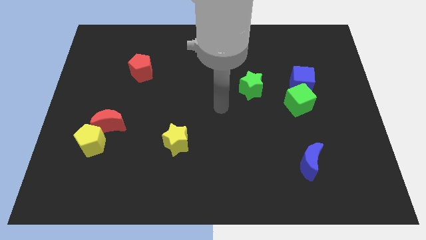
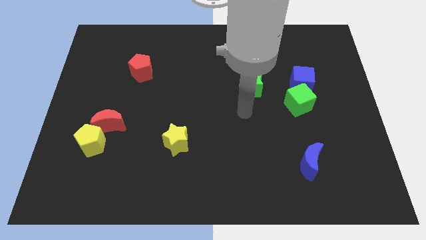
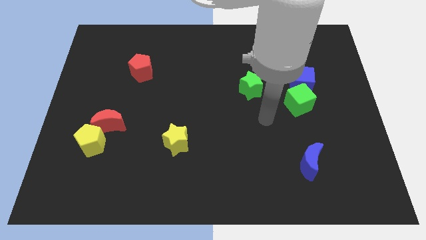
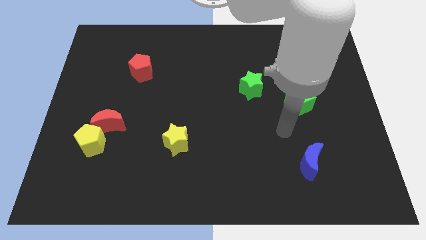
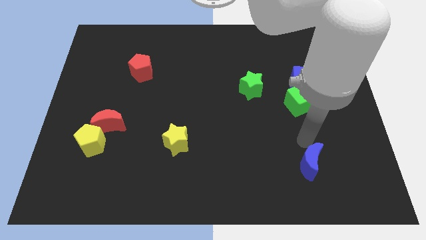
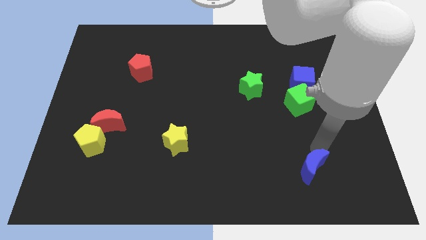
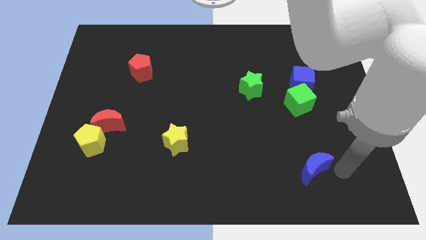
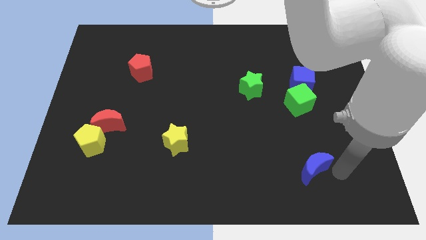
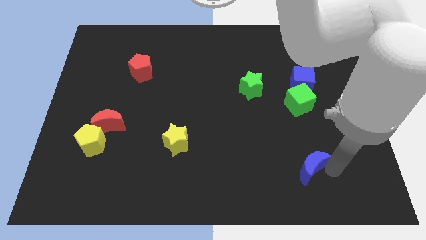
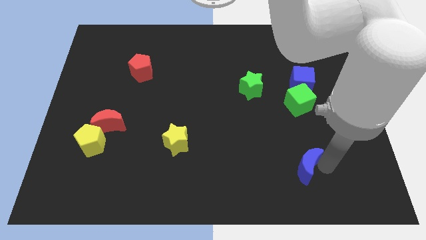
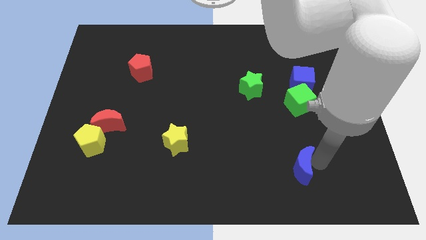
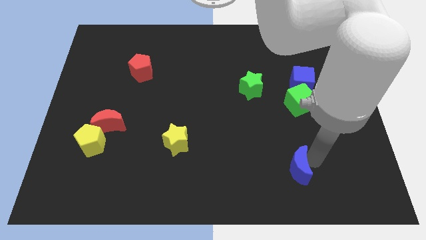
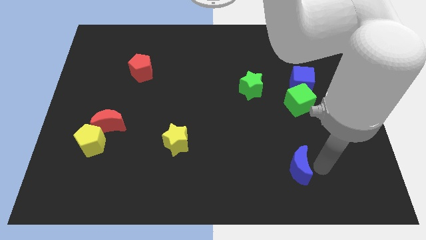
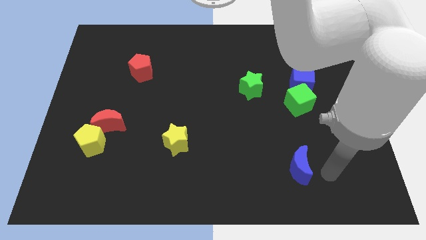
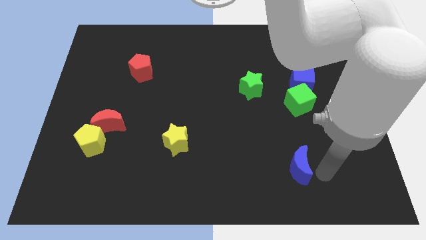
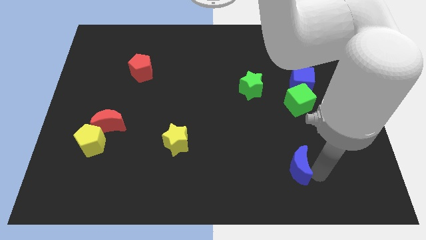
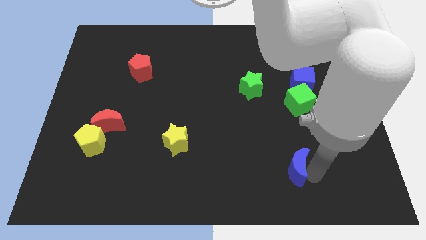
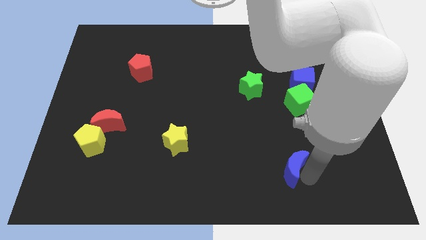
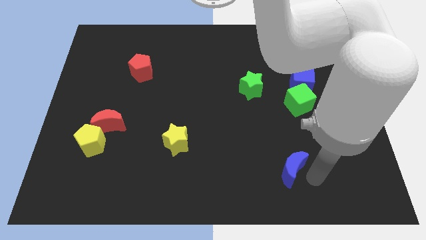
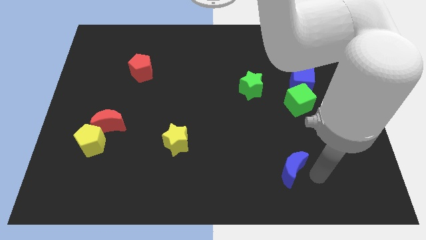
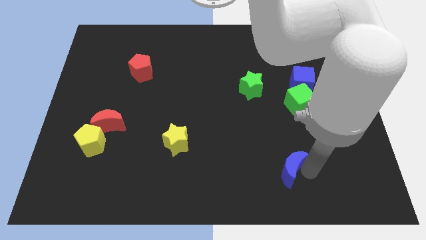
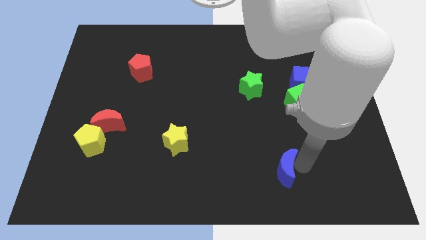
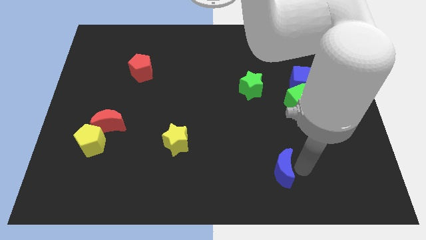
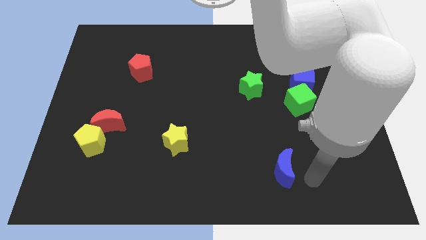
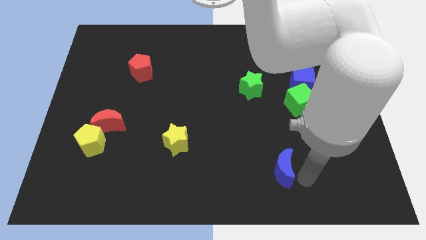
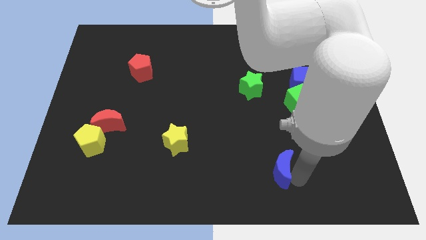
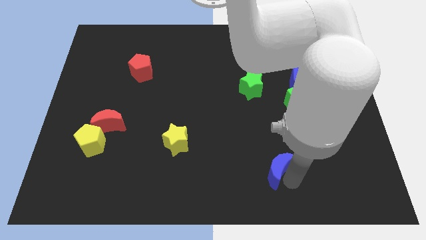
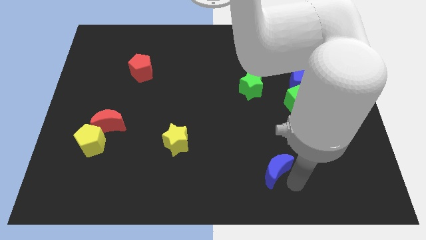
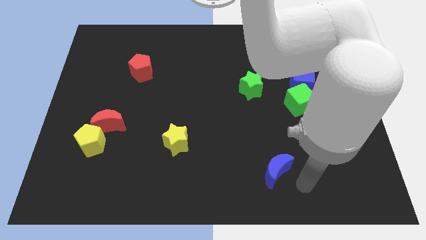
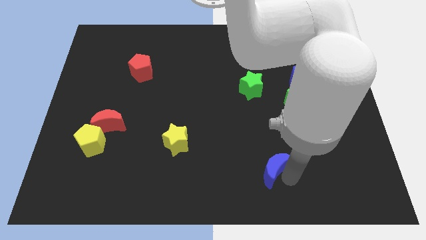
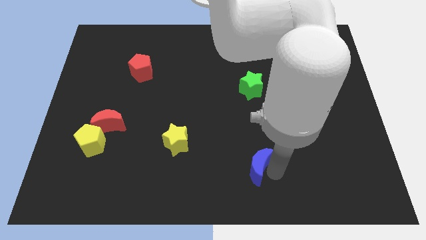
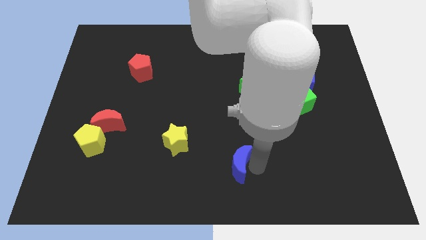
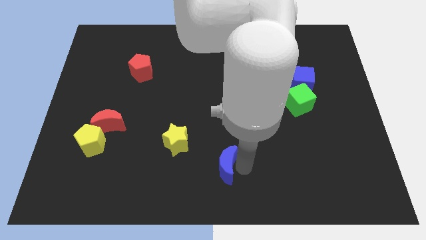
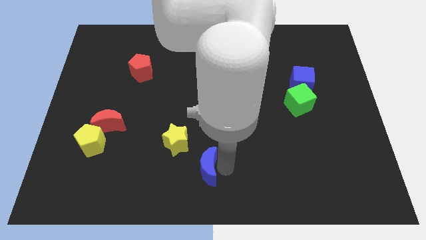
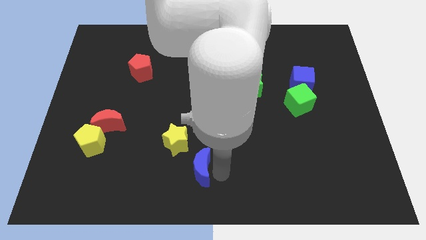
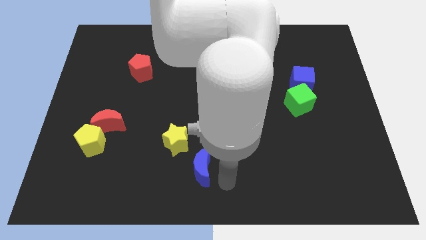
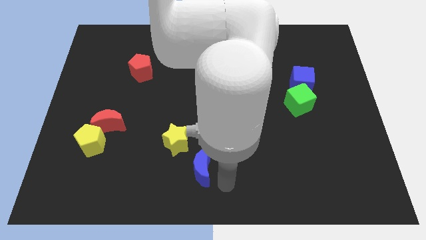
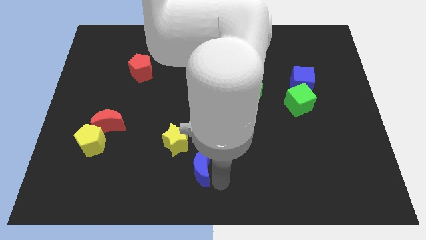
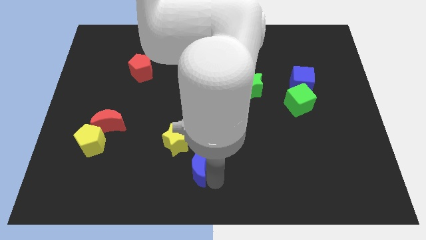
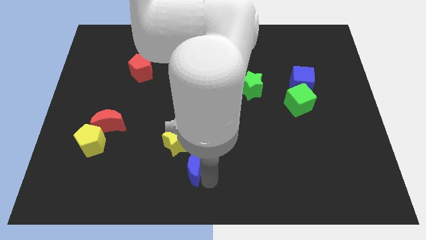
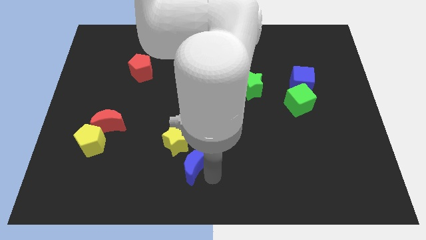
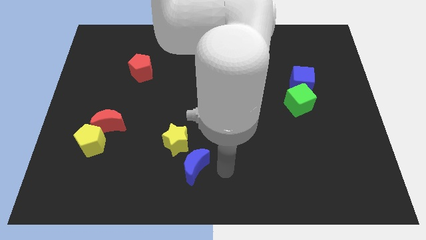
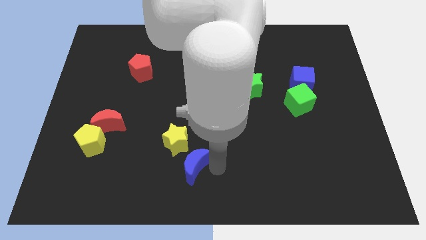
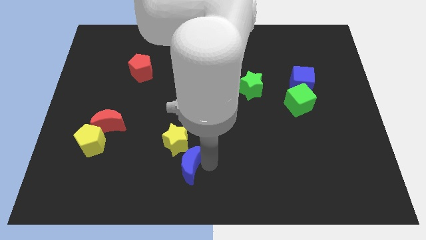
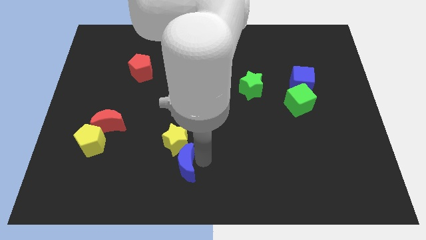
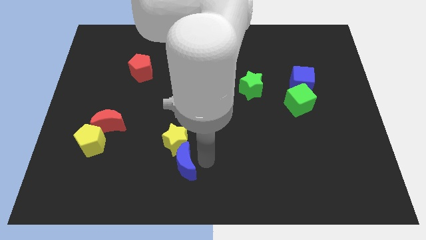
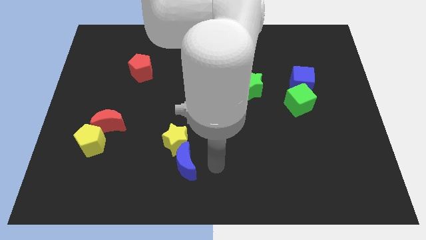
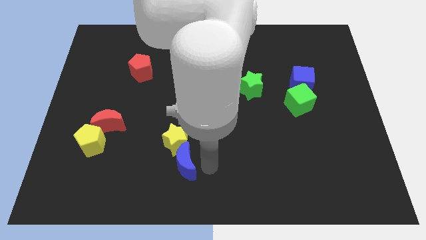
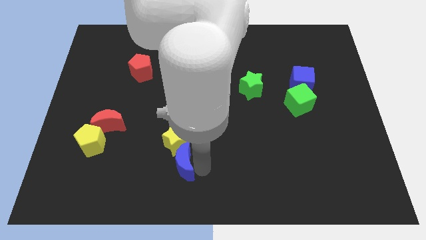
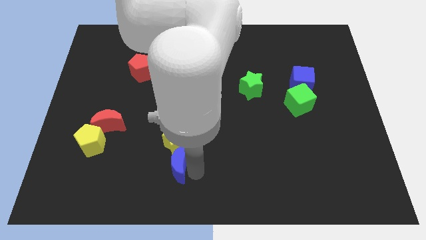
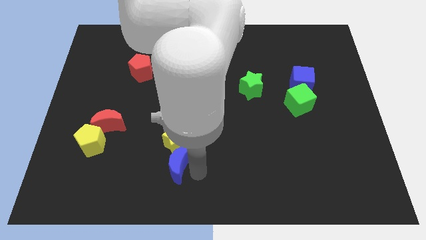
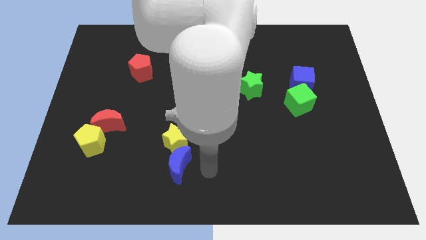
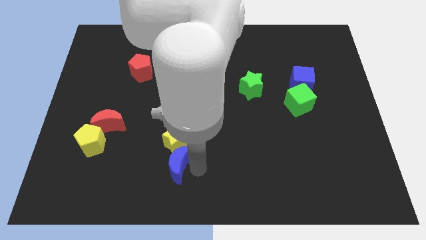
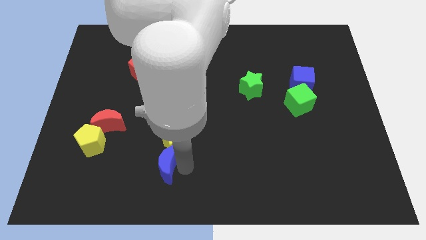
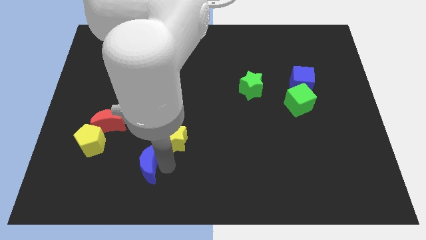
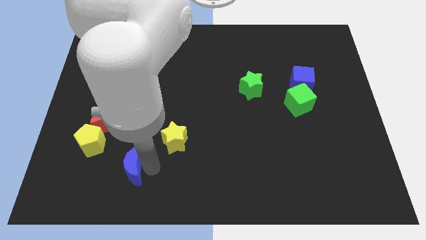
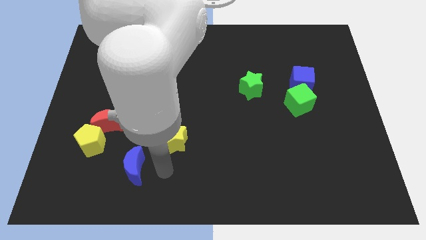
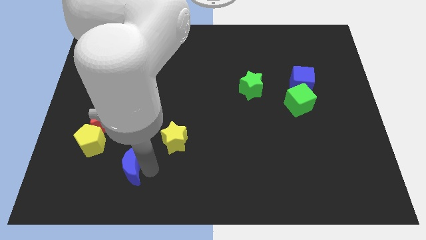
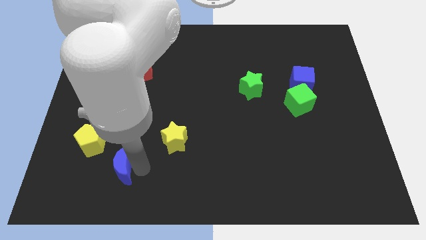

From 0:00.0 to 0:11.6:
push the blue moon to the bottom of the red moon

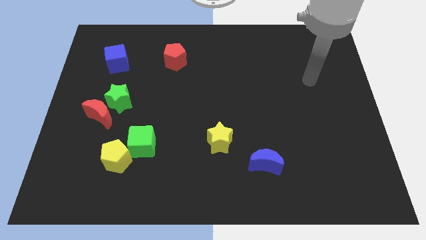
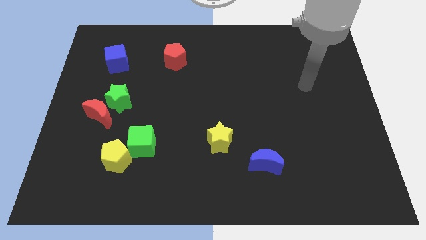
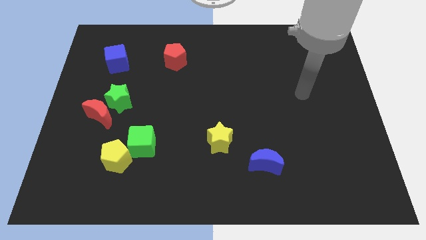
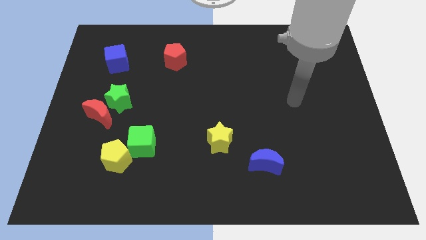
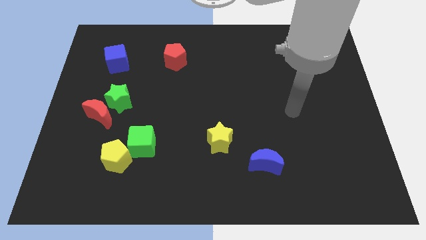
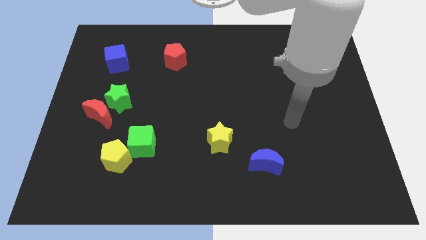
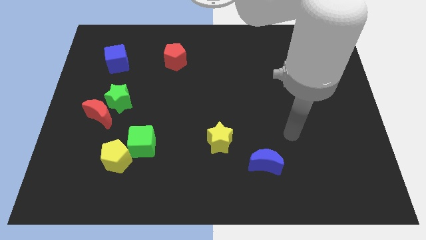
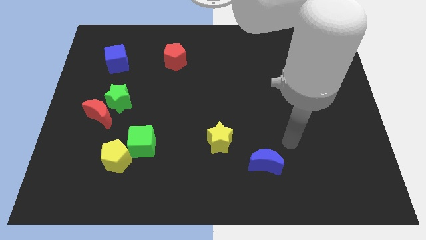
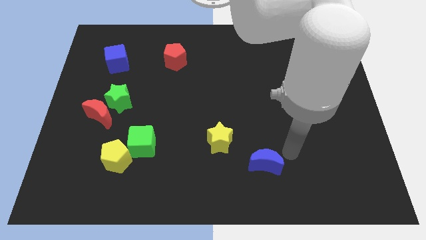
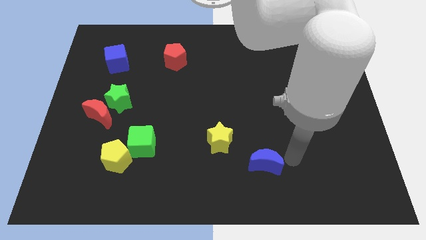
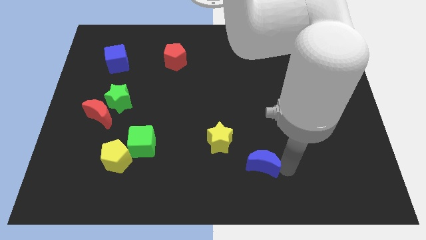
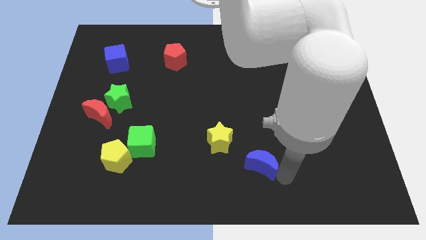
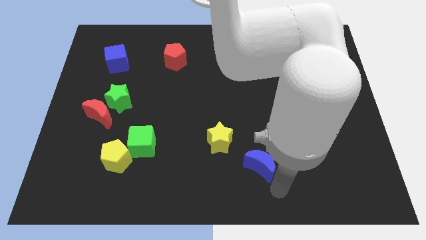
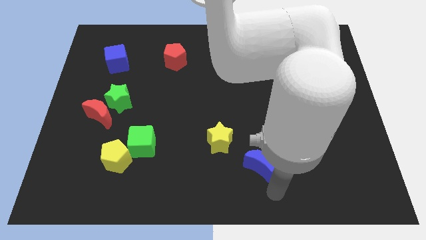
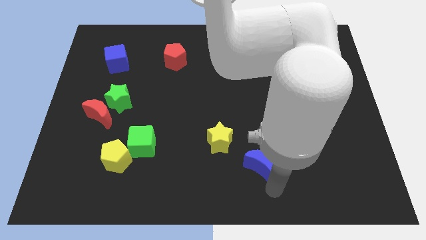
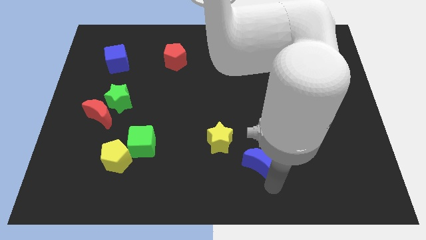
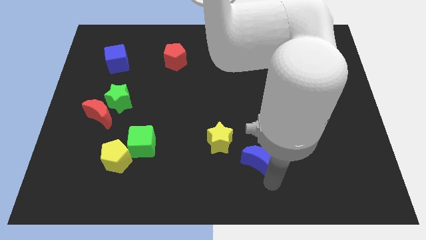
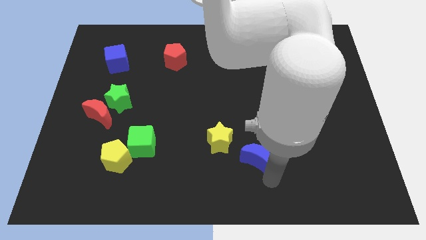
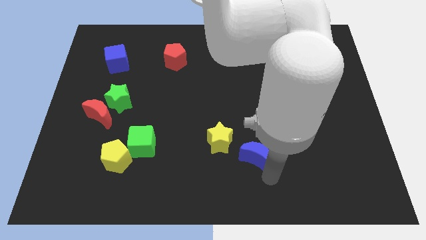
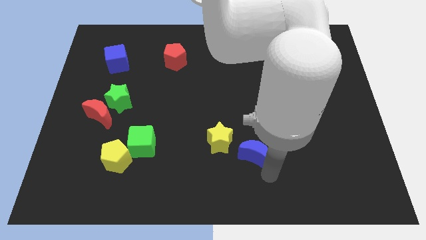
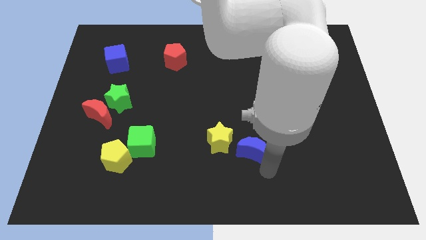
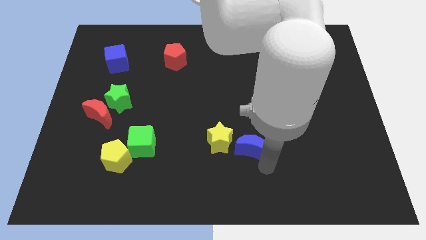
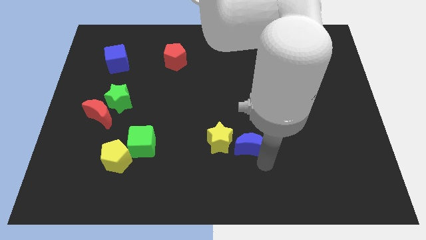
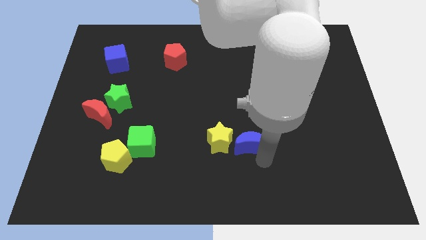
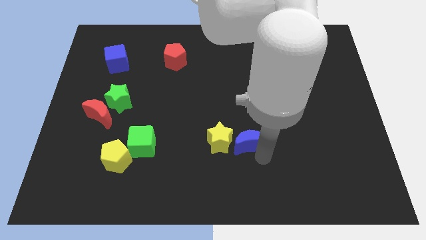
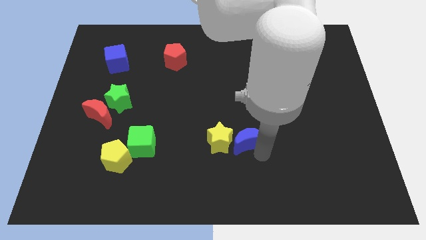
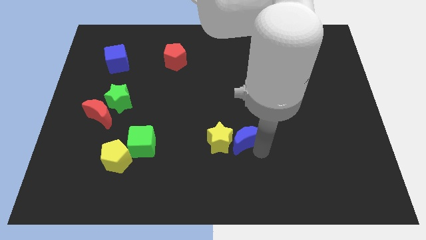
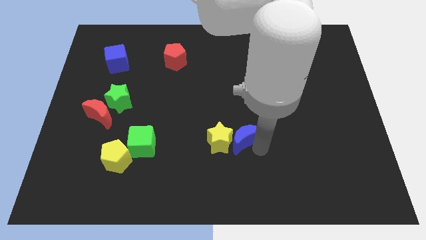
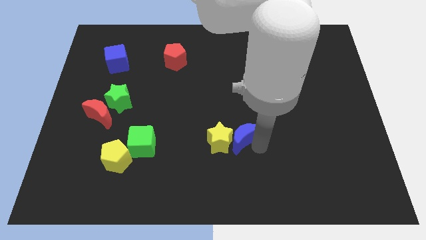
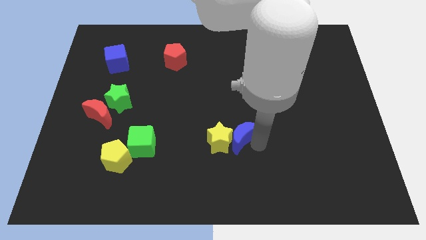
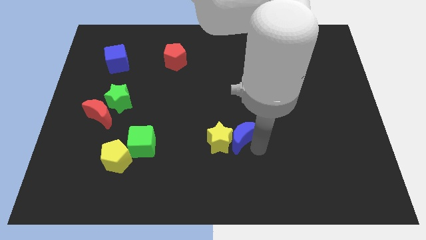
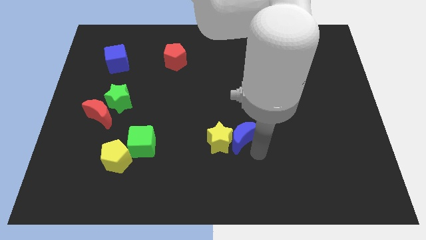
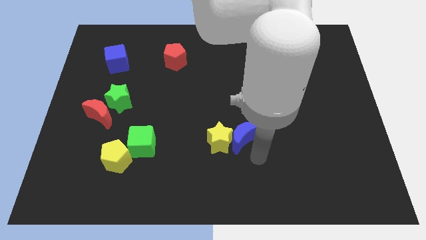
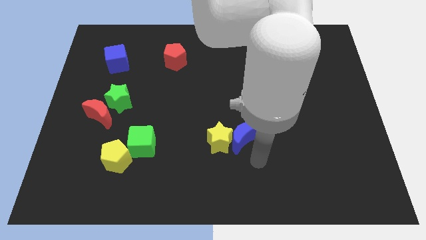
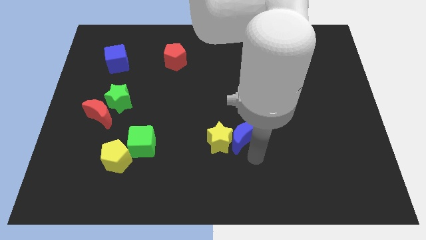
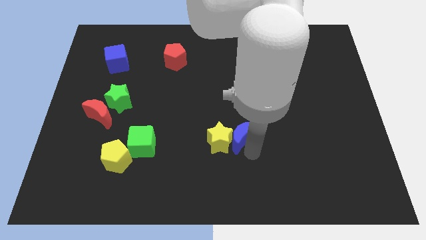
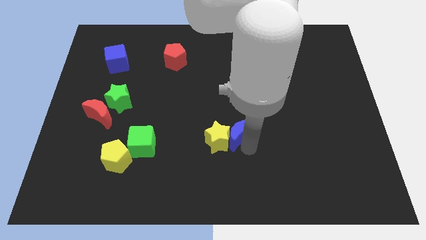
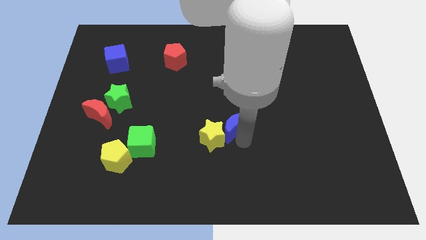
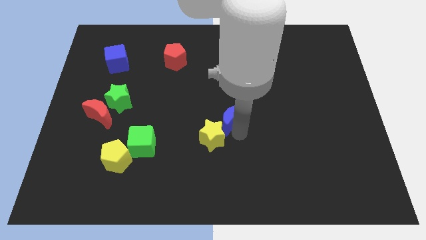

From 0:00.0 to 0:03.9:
push the blue moon to the top of the yellow star
